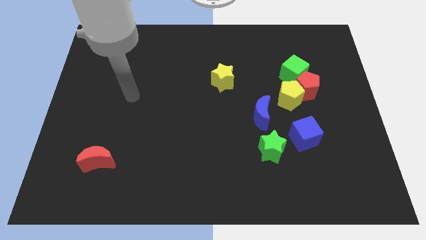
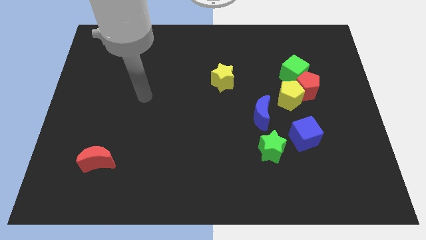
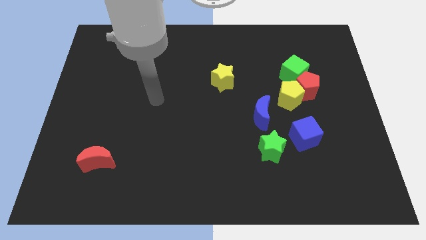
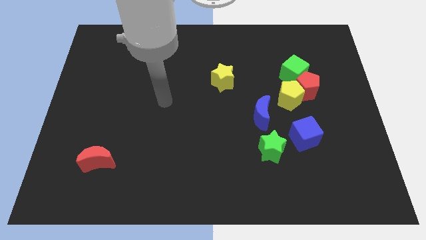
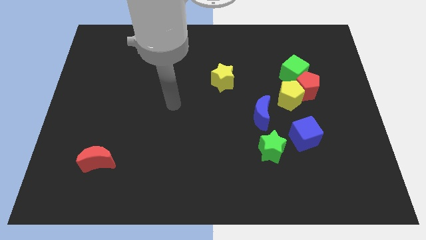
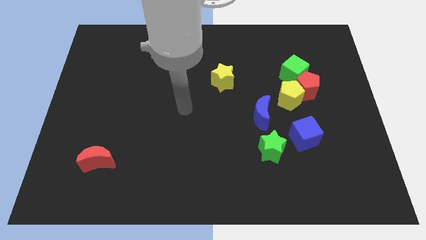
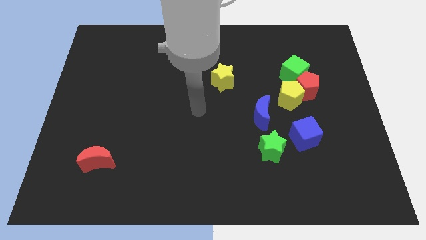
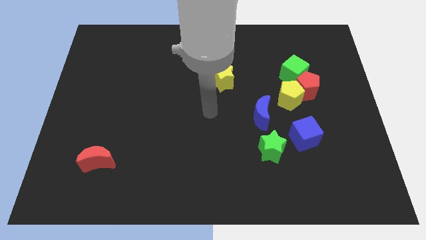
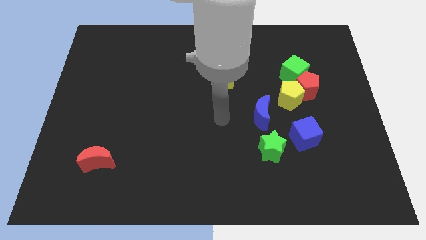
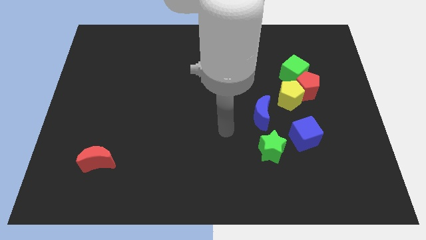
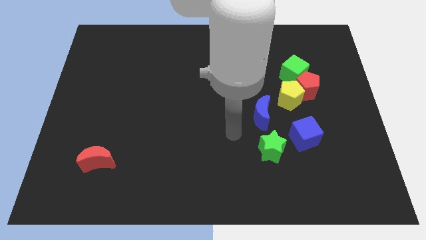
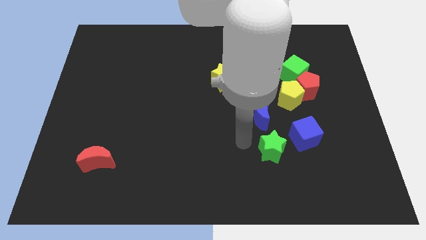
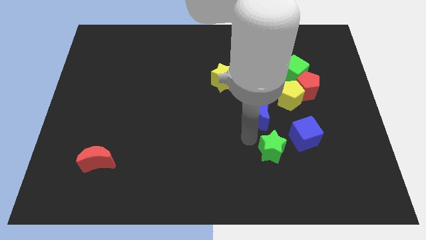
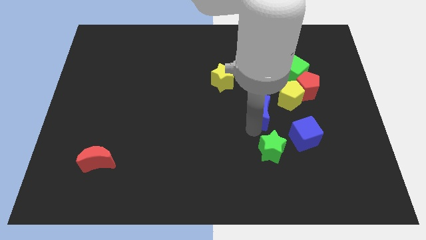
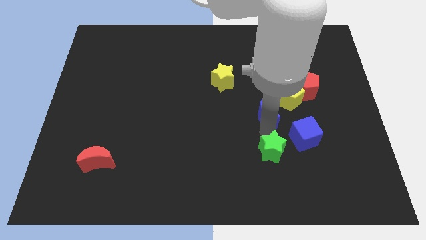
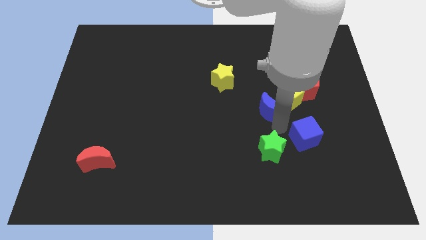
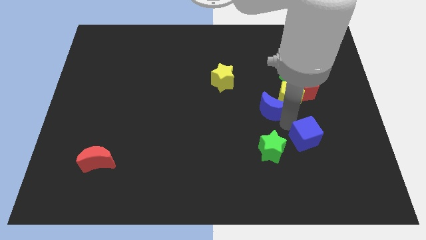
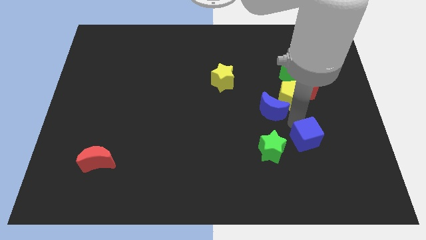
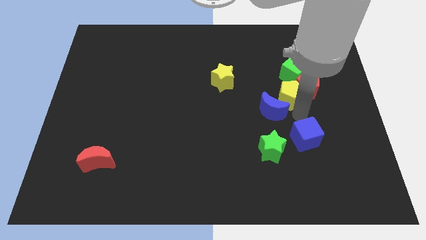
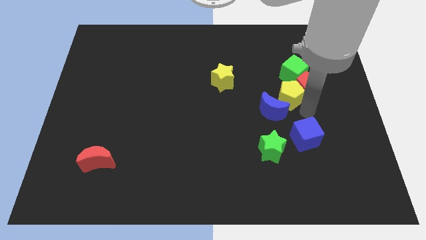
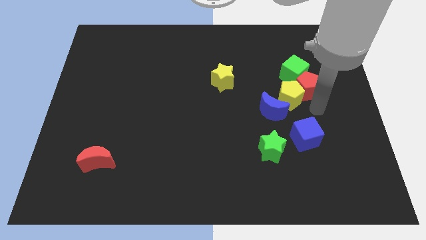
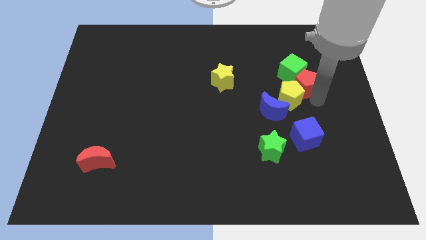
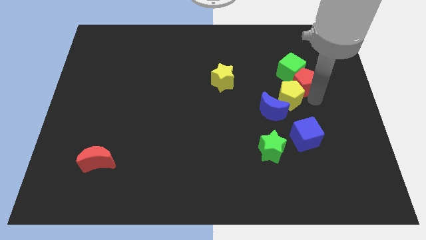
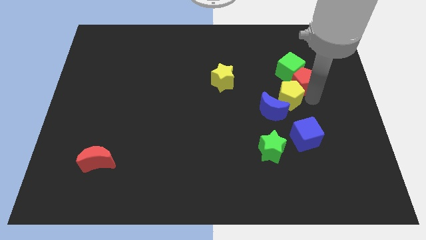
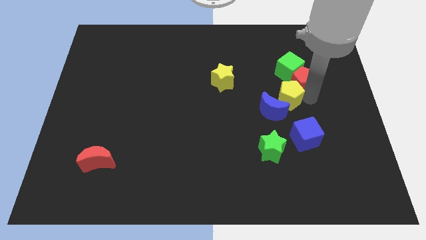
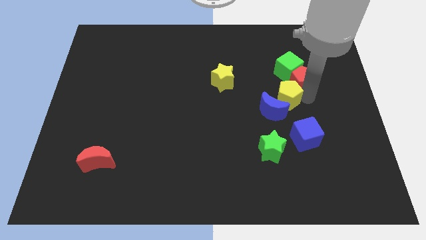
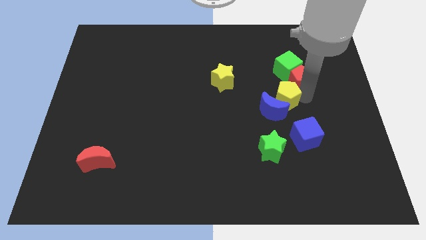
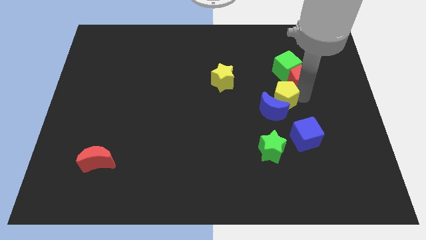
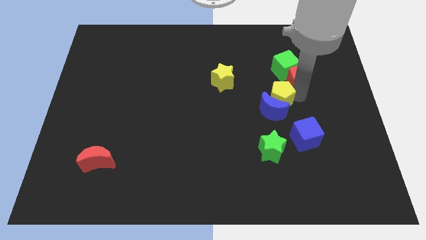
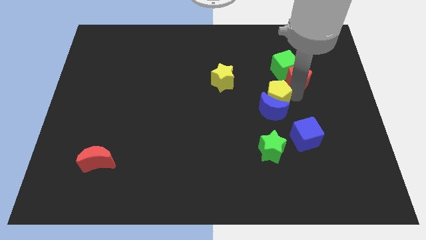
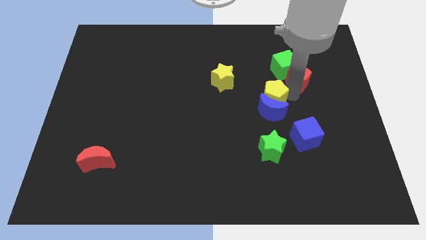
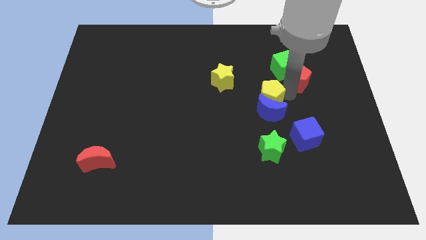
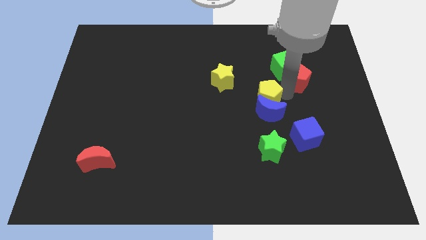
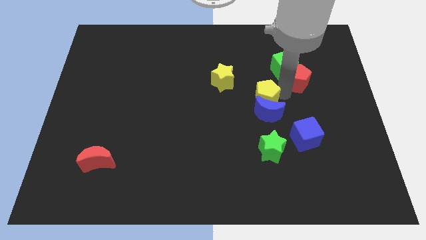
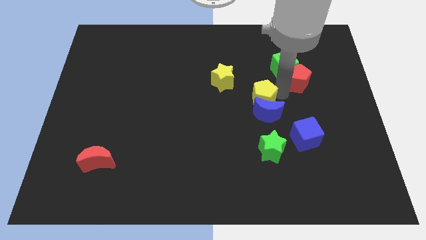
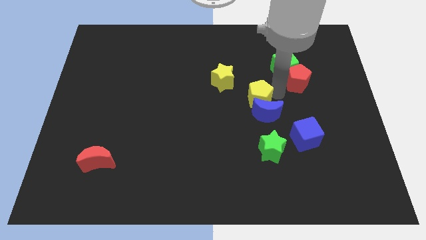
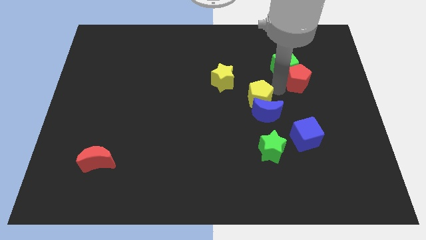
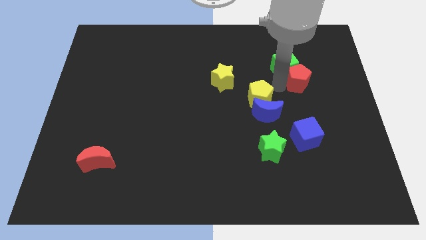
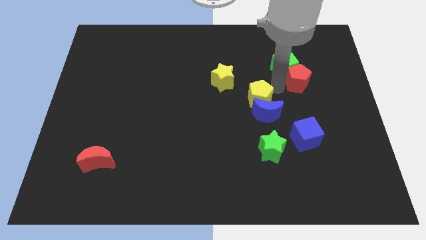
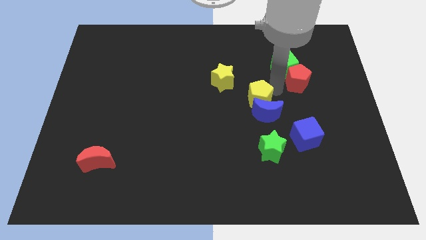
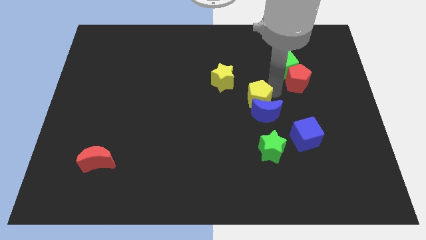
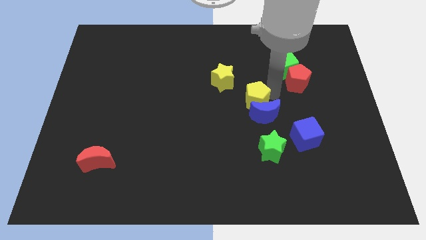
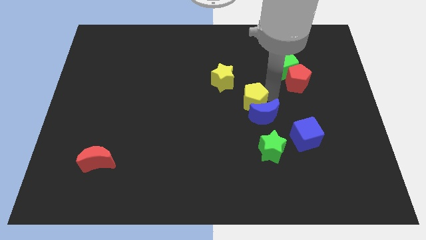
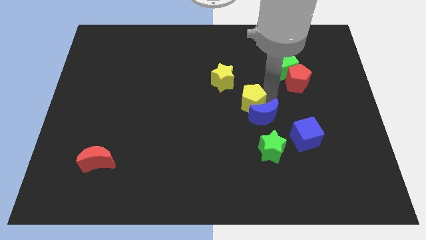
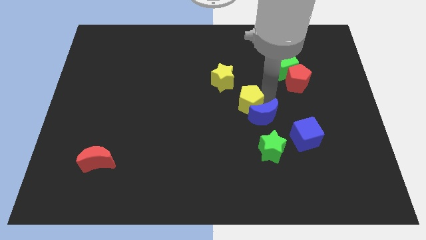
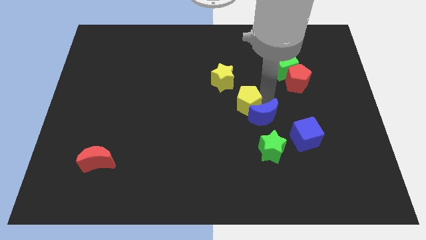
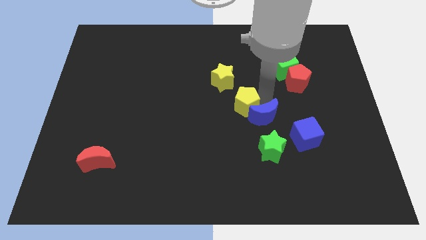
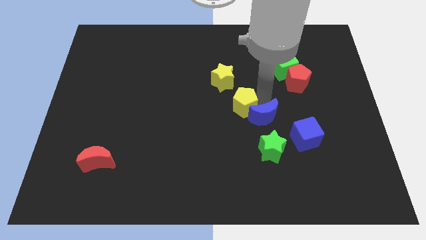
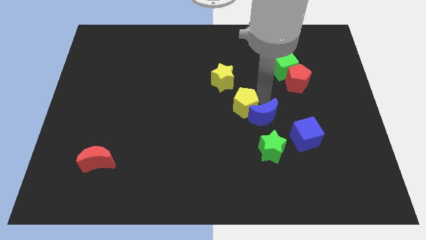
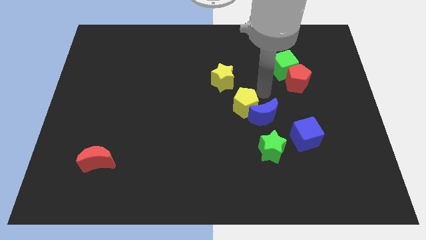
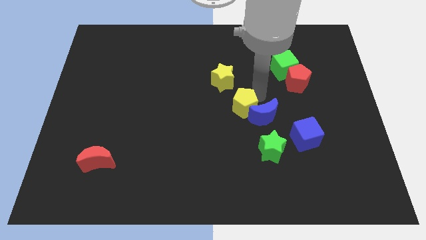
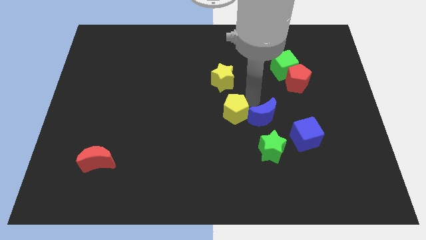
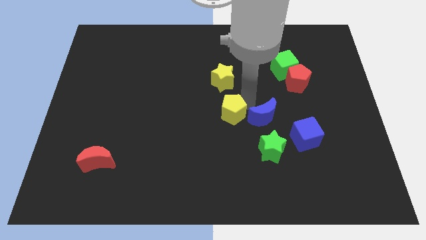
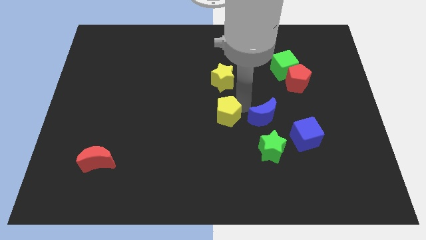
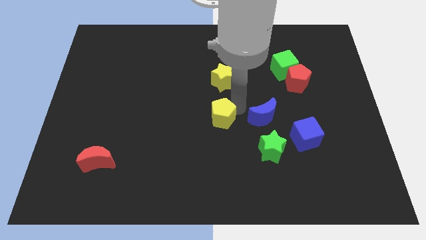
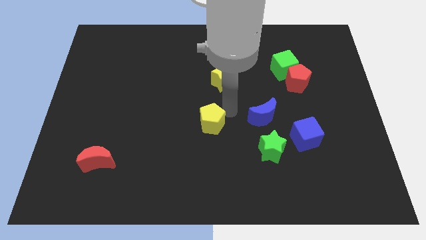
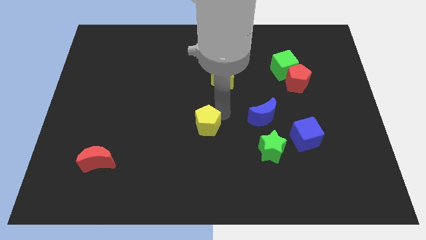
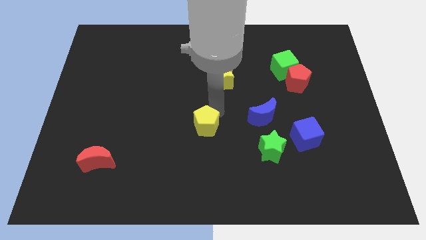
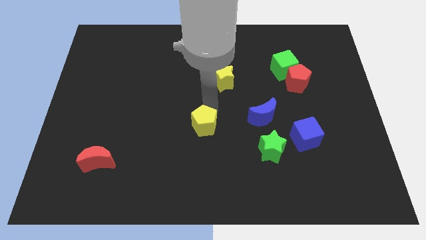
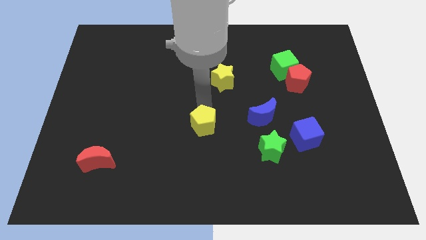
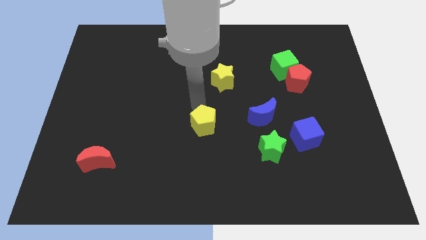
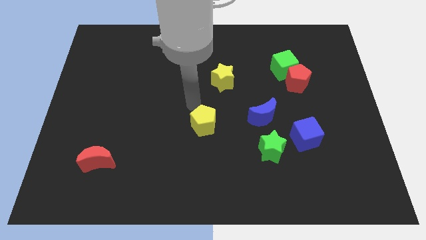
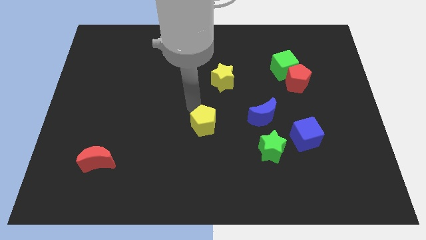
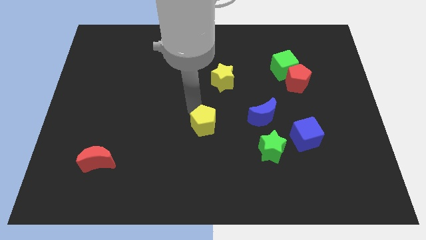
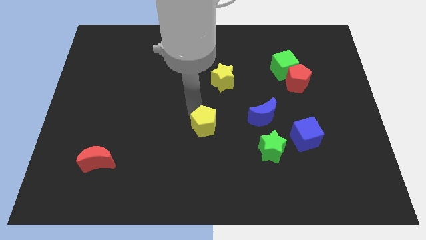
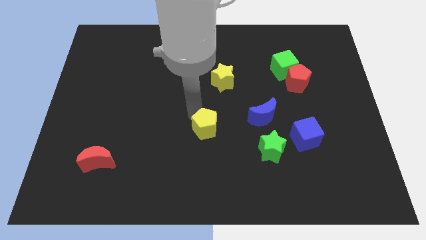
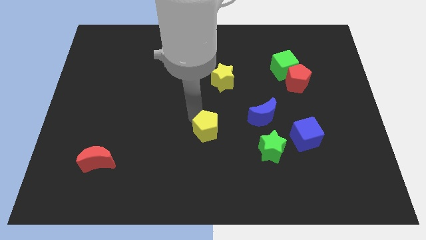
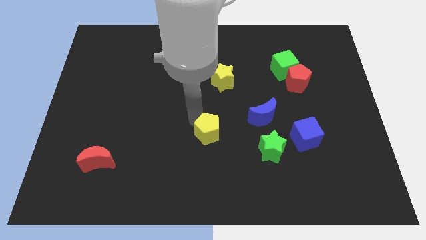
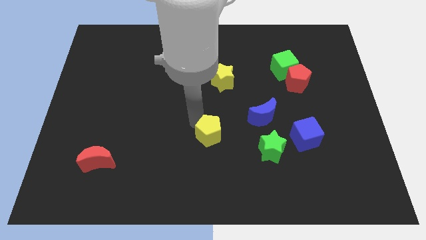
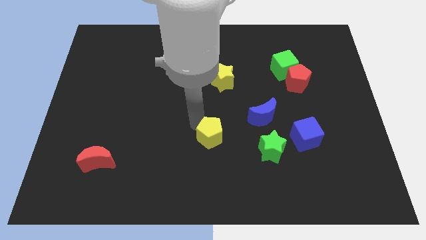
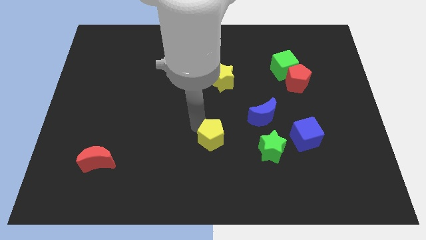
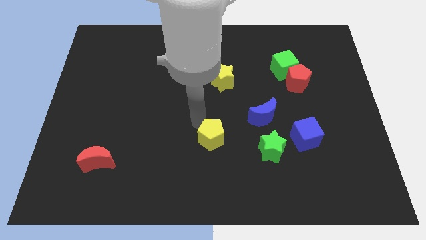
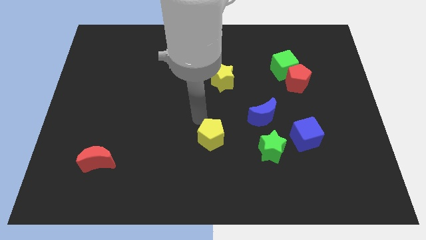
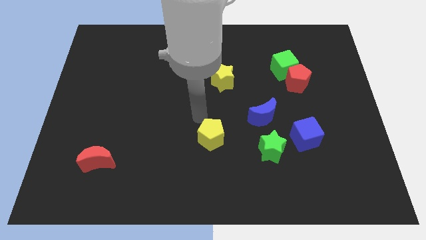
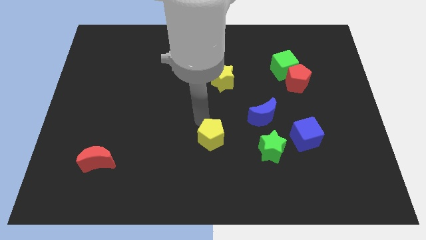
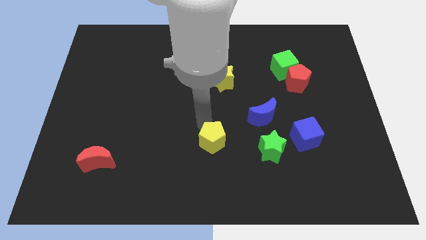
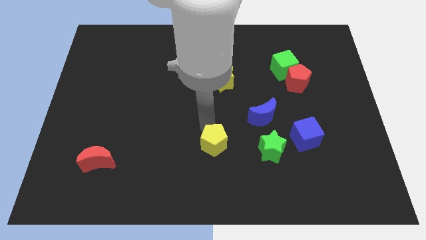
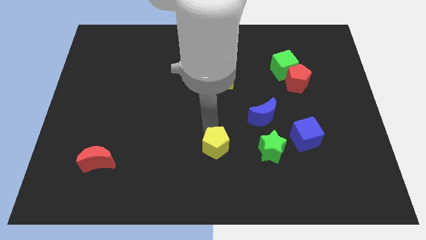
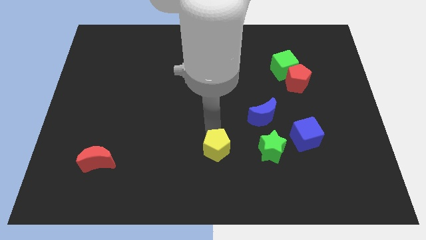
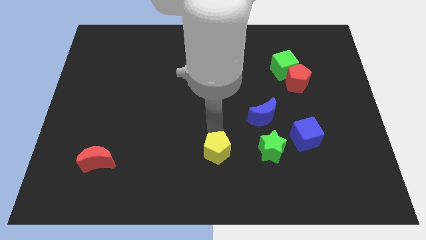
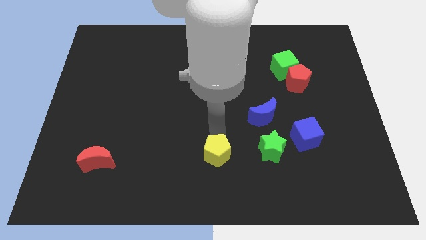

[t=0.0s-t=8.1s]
slide the yellow pentagon to the bottom side
